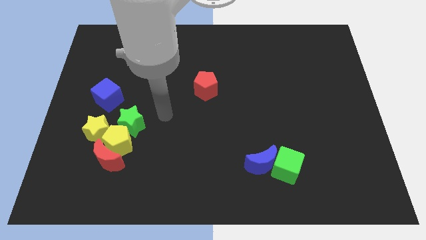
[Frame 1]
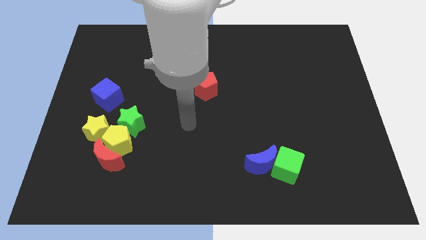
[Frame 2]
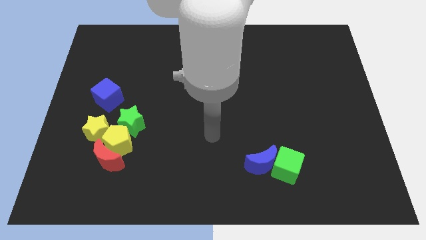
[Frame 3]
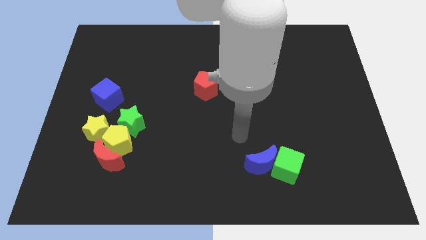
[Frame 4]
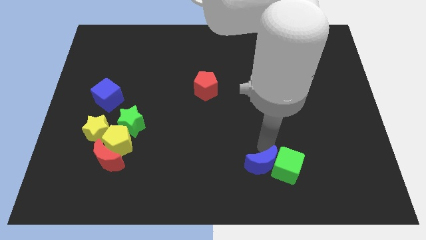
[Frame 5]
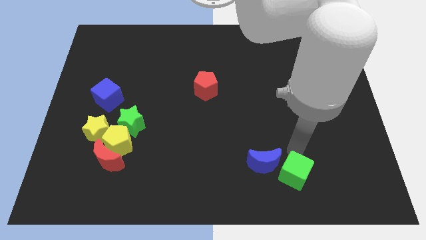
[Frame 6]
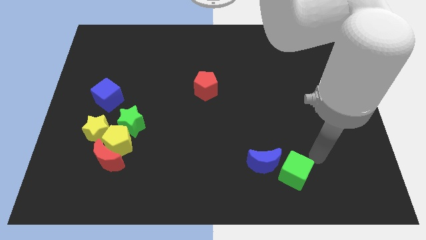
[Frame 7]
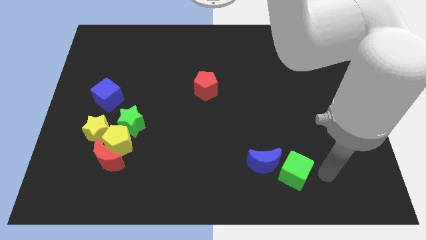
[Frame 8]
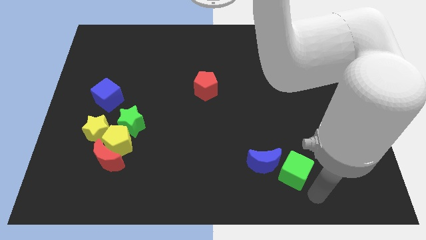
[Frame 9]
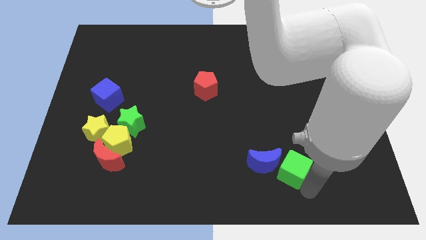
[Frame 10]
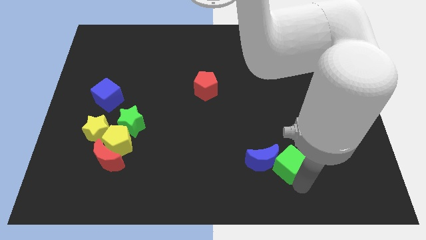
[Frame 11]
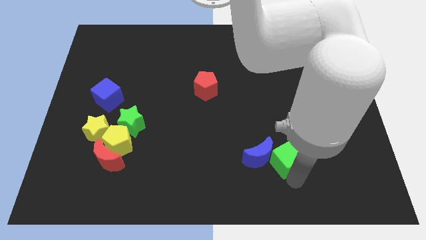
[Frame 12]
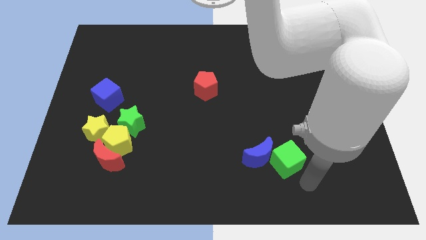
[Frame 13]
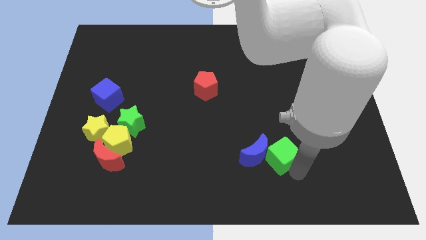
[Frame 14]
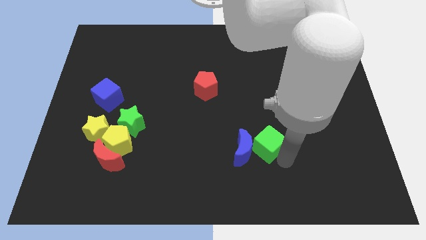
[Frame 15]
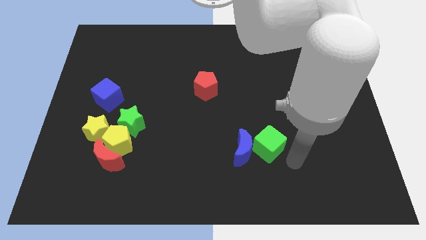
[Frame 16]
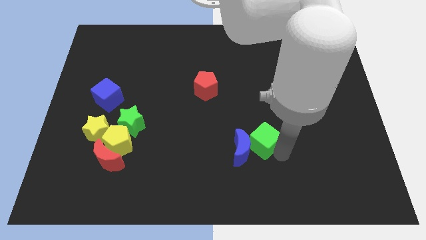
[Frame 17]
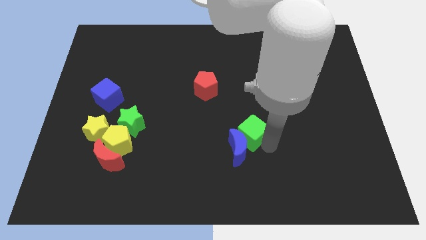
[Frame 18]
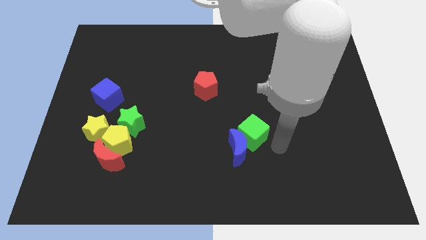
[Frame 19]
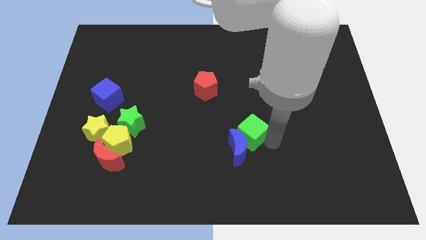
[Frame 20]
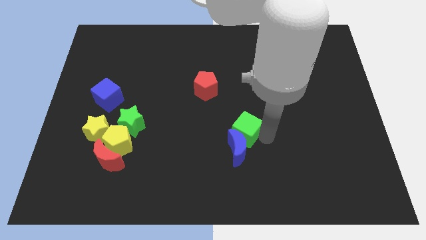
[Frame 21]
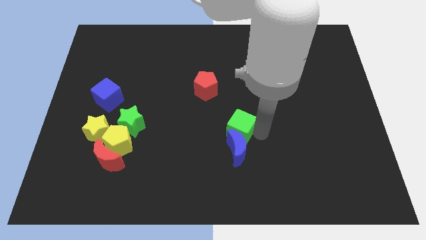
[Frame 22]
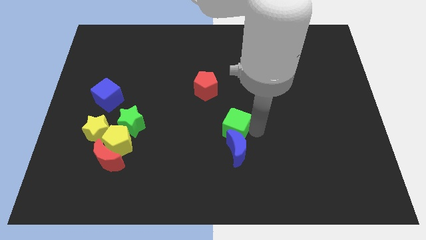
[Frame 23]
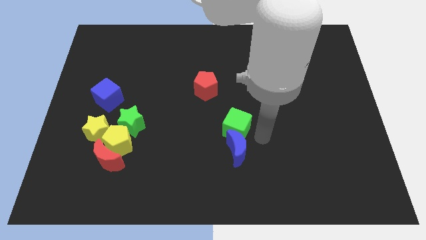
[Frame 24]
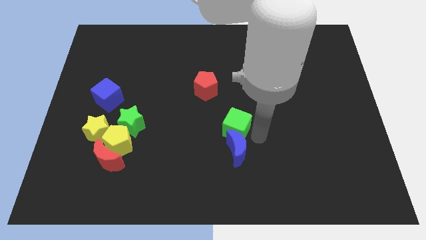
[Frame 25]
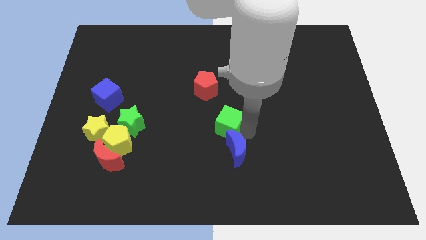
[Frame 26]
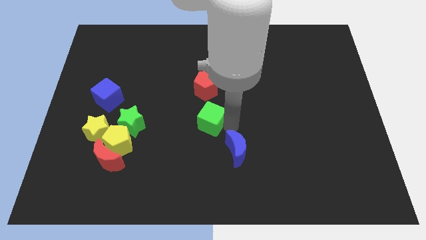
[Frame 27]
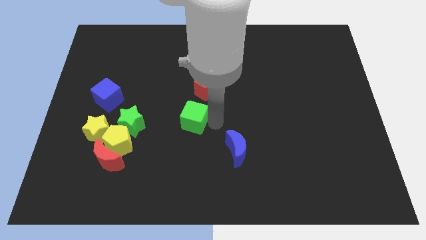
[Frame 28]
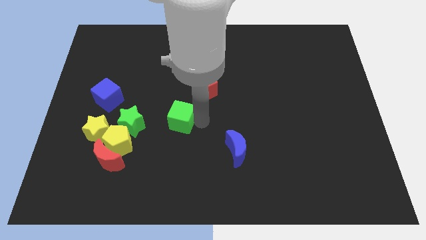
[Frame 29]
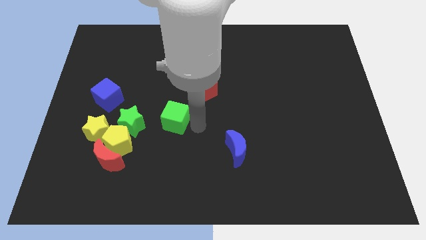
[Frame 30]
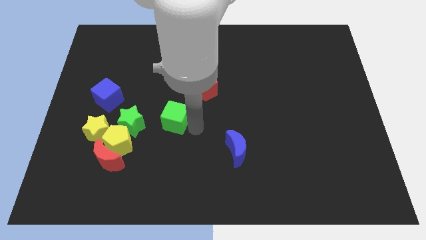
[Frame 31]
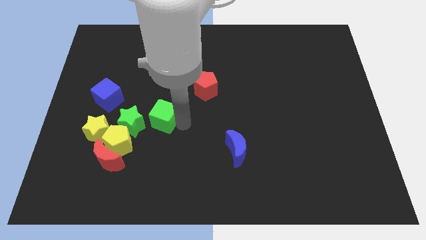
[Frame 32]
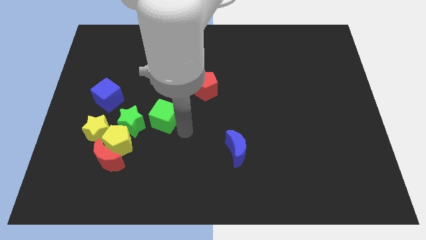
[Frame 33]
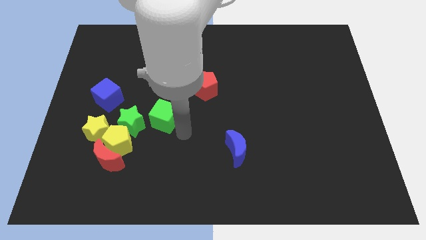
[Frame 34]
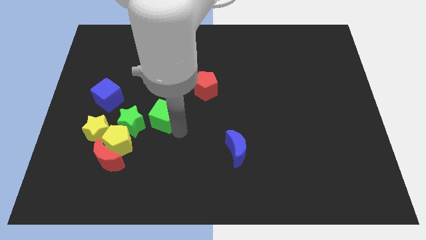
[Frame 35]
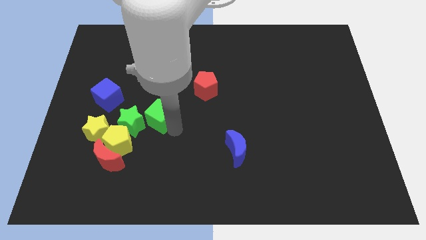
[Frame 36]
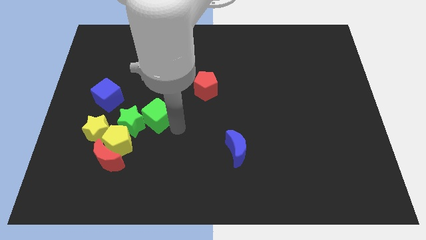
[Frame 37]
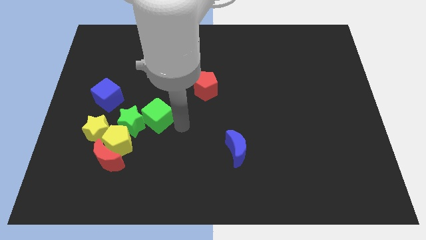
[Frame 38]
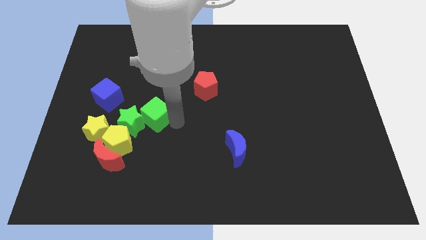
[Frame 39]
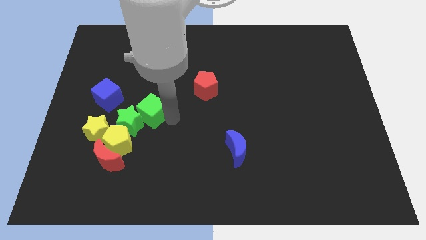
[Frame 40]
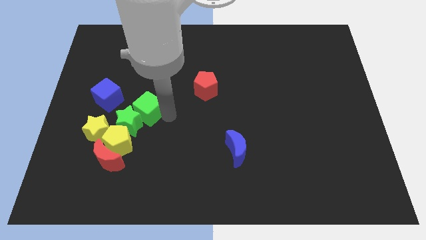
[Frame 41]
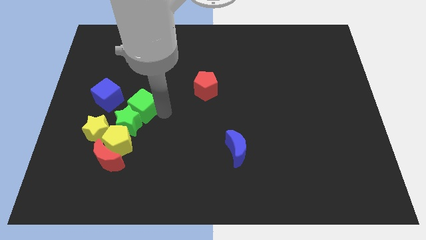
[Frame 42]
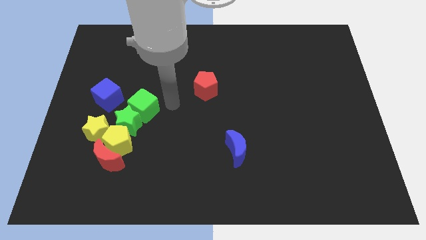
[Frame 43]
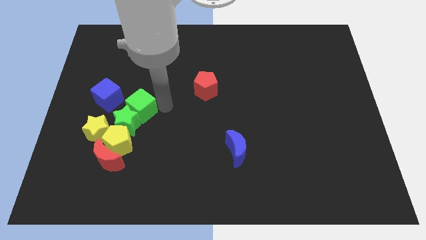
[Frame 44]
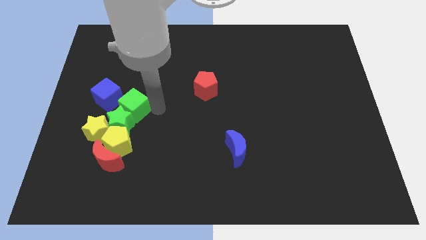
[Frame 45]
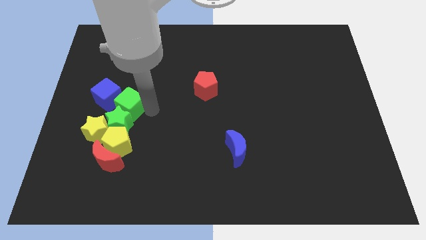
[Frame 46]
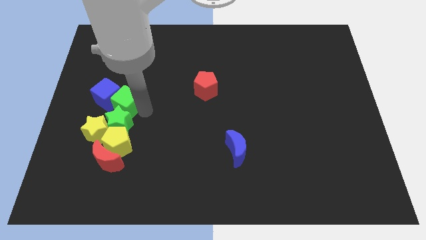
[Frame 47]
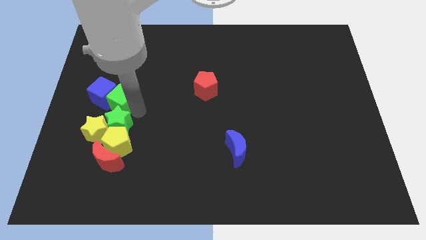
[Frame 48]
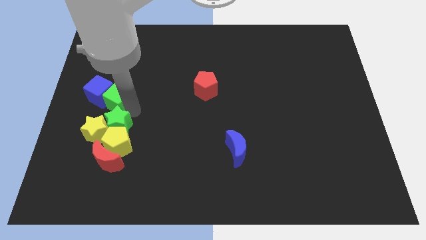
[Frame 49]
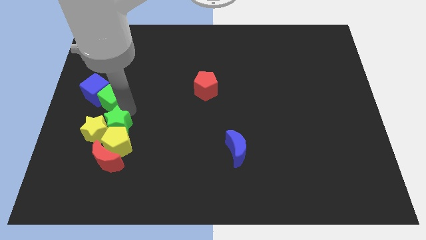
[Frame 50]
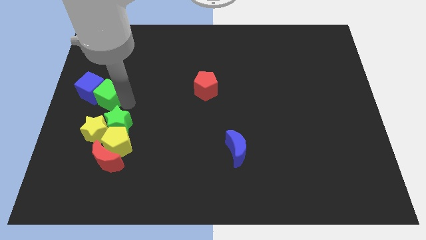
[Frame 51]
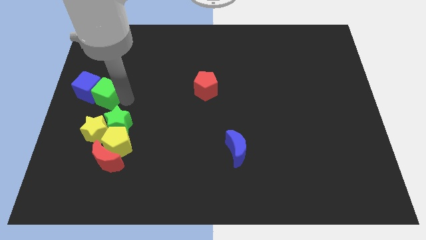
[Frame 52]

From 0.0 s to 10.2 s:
move the green cube to the left side of the board

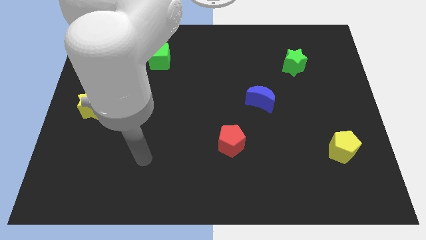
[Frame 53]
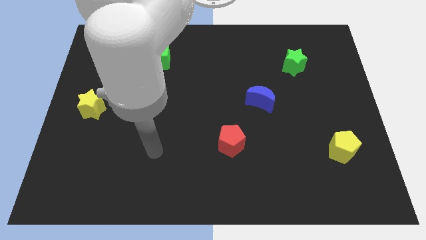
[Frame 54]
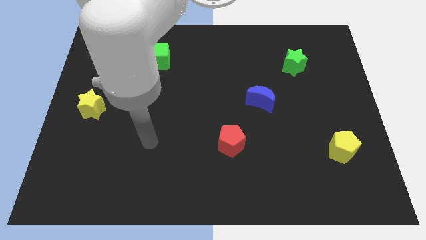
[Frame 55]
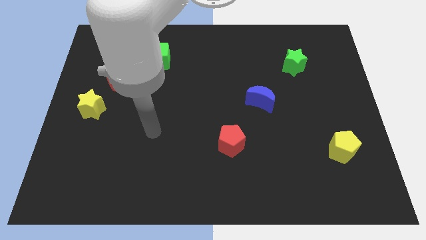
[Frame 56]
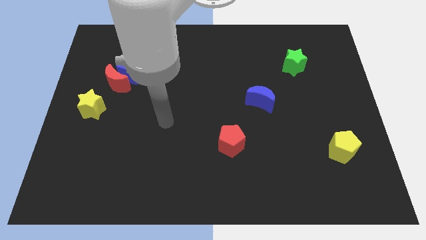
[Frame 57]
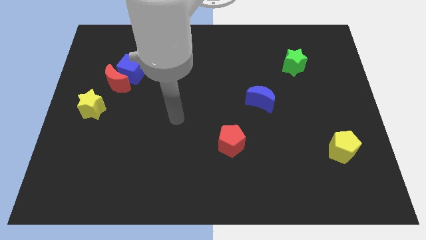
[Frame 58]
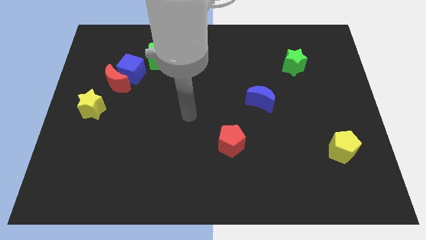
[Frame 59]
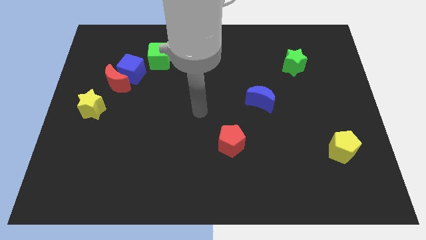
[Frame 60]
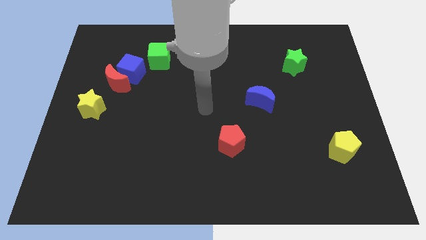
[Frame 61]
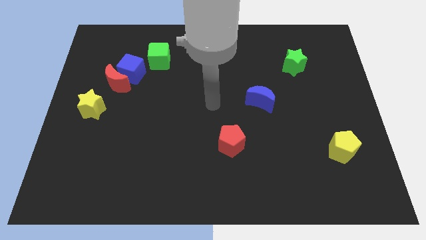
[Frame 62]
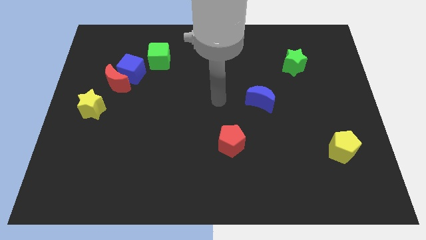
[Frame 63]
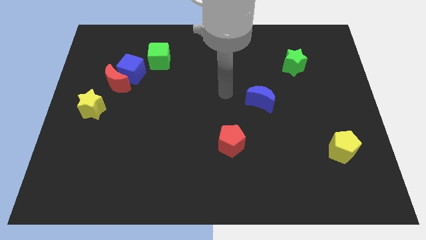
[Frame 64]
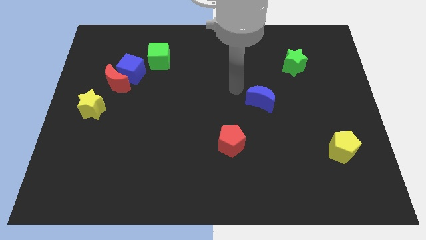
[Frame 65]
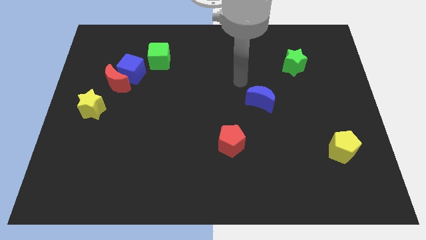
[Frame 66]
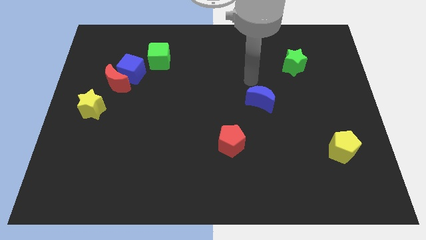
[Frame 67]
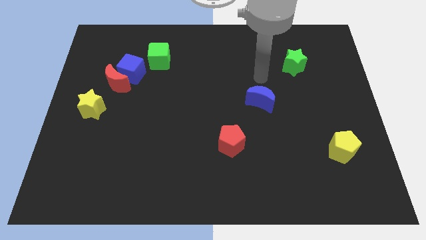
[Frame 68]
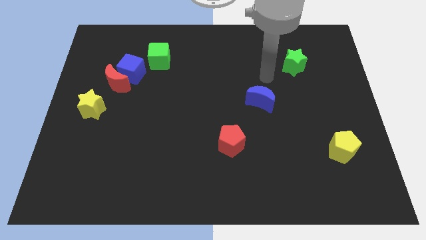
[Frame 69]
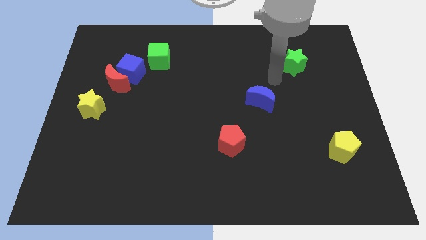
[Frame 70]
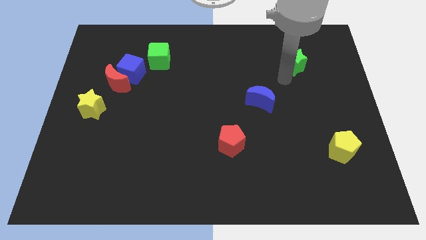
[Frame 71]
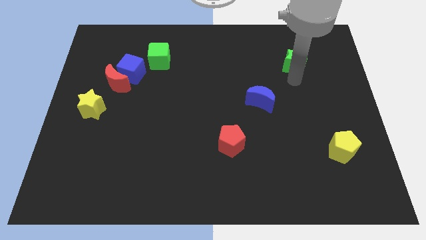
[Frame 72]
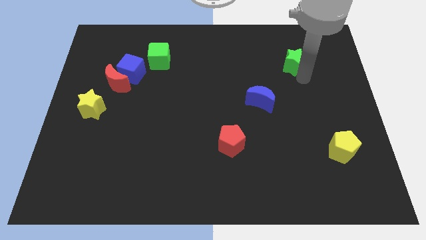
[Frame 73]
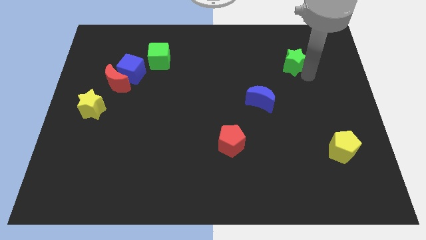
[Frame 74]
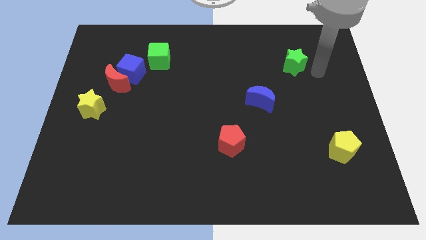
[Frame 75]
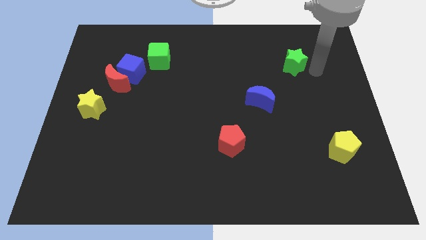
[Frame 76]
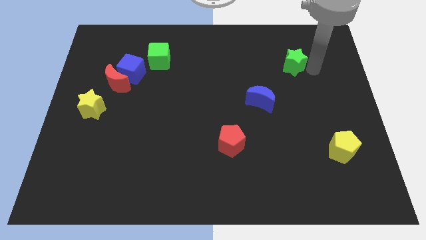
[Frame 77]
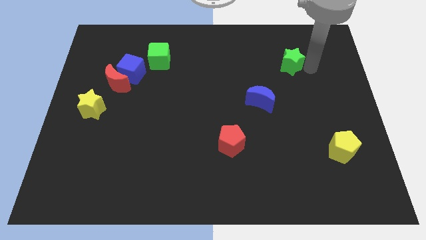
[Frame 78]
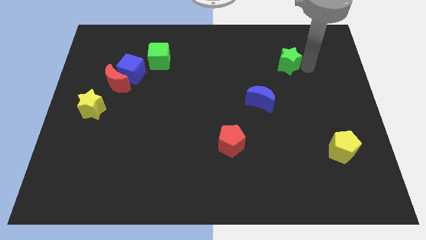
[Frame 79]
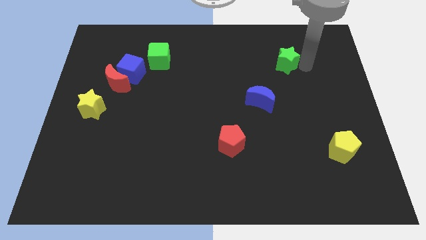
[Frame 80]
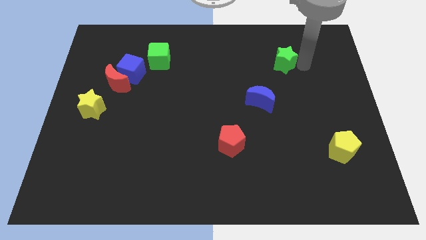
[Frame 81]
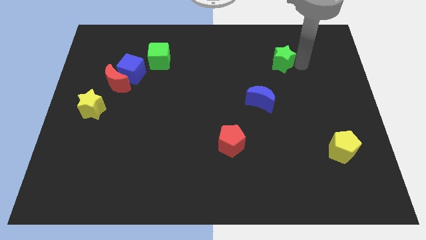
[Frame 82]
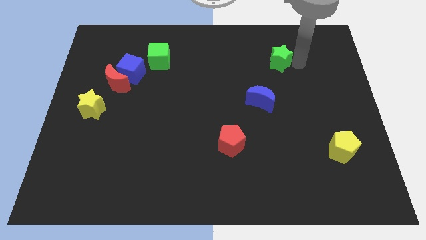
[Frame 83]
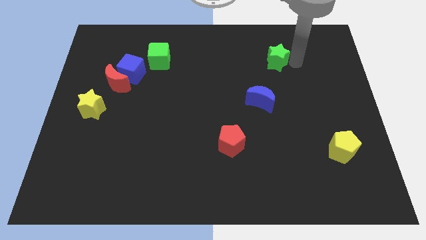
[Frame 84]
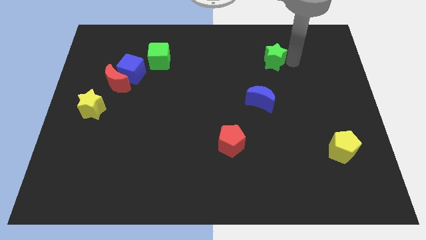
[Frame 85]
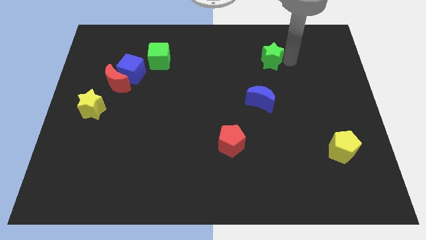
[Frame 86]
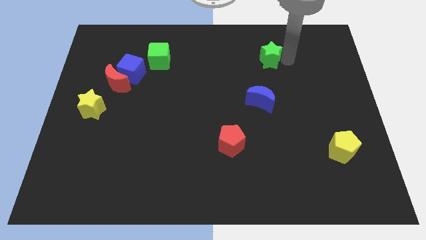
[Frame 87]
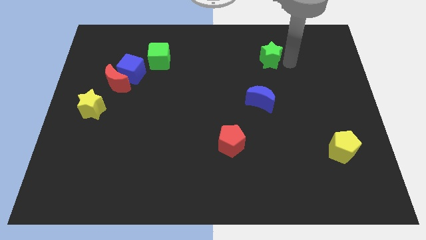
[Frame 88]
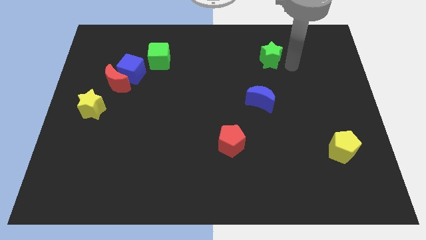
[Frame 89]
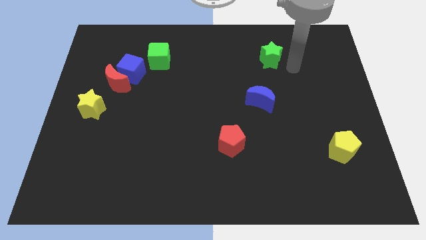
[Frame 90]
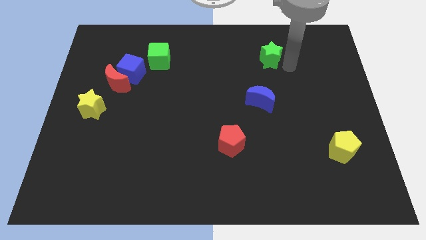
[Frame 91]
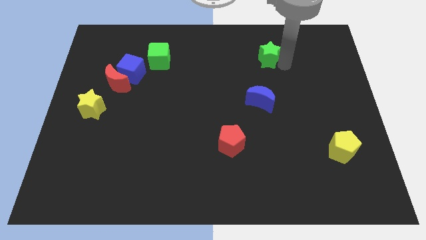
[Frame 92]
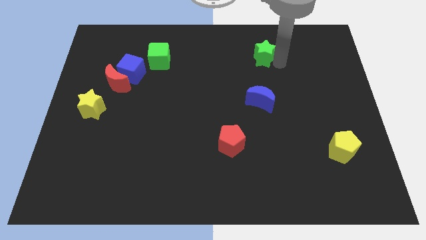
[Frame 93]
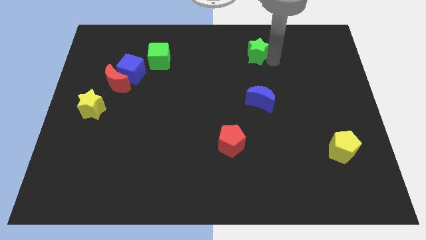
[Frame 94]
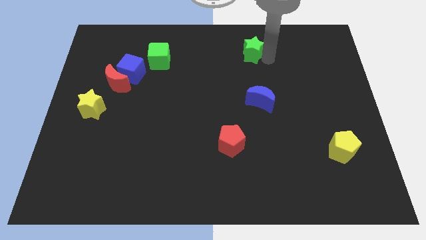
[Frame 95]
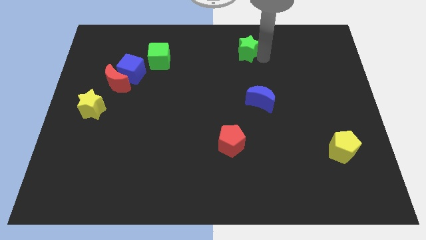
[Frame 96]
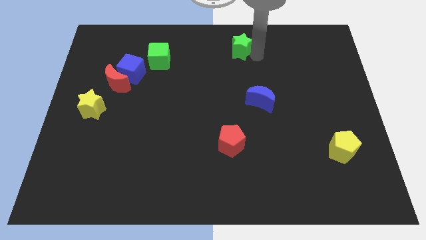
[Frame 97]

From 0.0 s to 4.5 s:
slide the green star to the top
